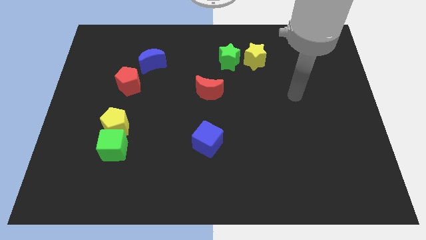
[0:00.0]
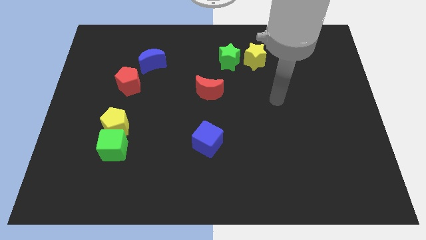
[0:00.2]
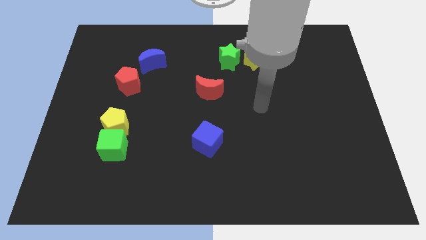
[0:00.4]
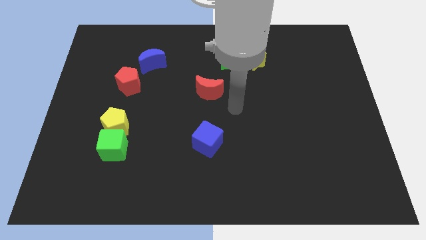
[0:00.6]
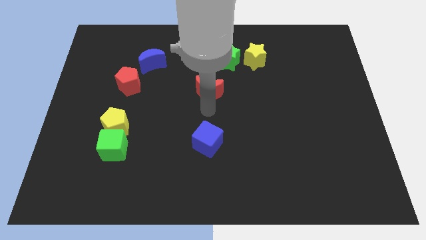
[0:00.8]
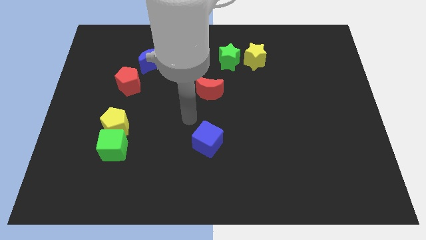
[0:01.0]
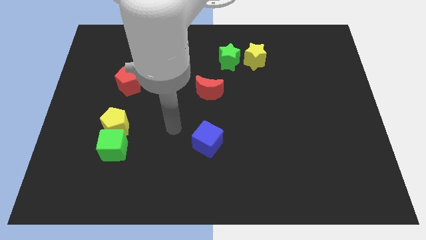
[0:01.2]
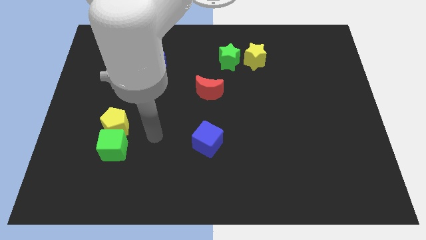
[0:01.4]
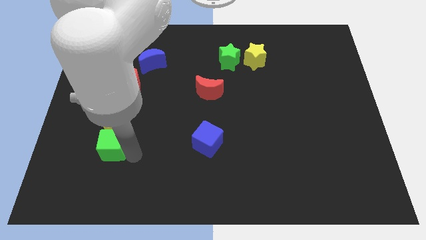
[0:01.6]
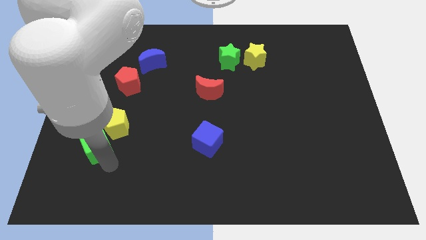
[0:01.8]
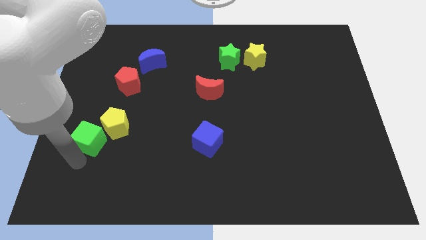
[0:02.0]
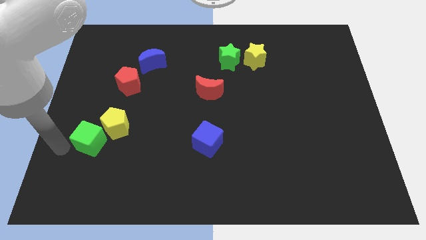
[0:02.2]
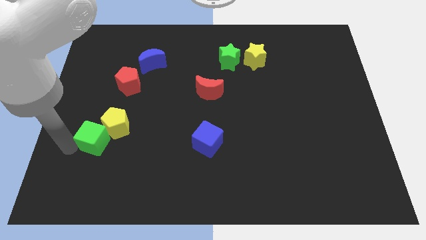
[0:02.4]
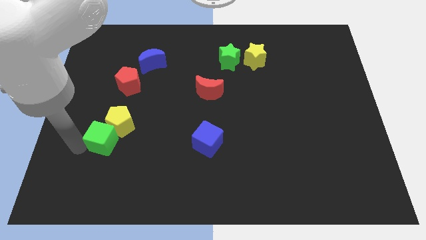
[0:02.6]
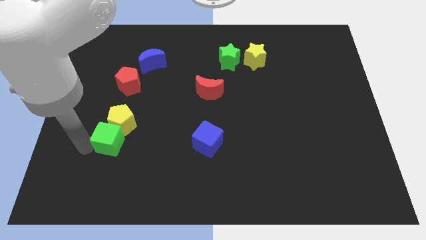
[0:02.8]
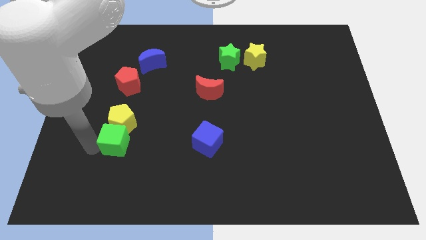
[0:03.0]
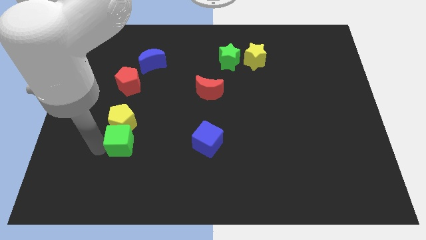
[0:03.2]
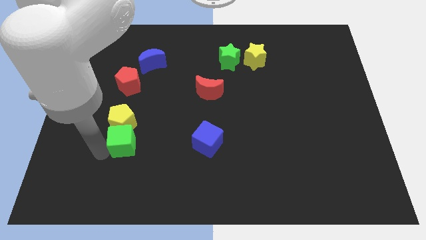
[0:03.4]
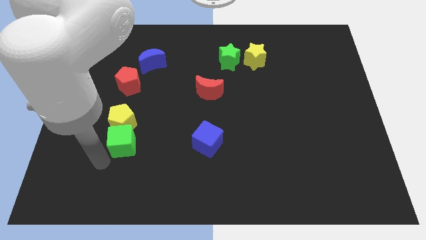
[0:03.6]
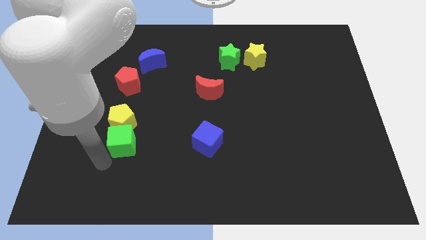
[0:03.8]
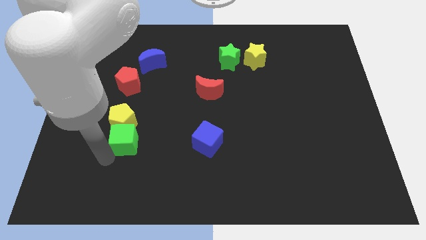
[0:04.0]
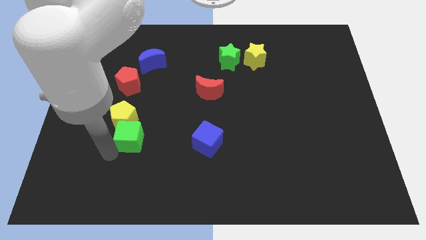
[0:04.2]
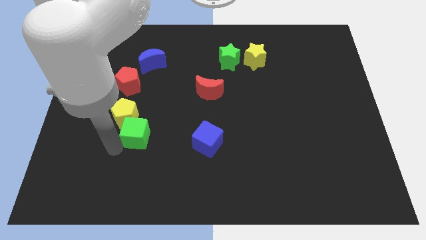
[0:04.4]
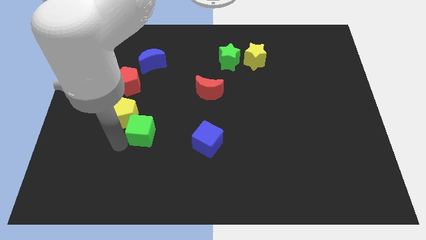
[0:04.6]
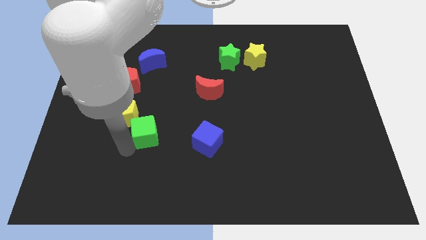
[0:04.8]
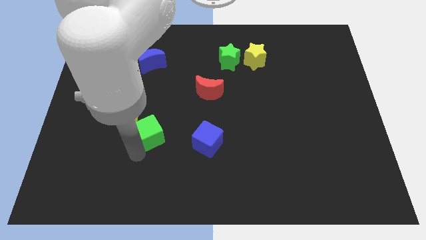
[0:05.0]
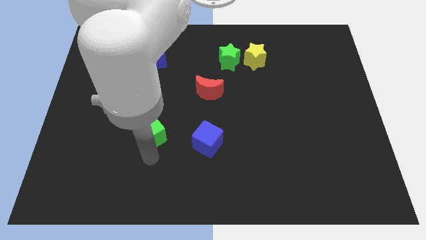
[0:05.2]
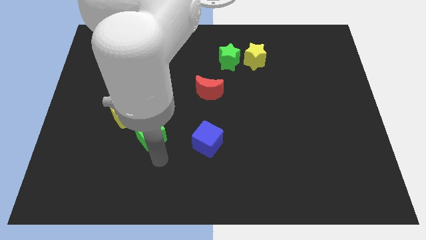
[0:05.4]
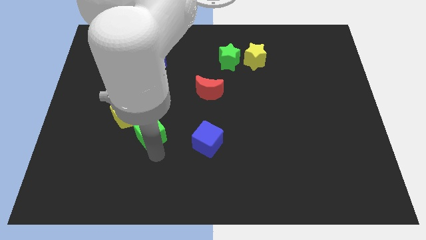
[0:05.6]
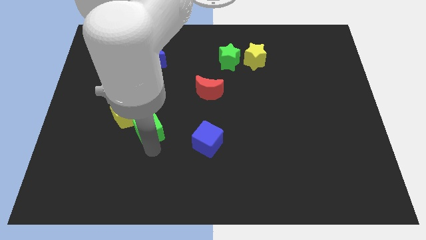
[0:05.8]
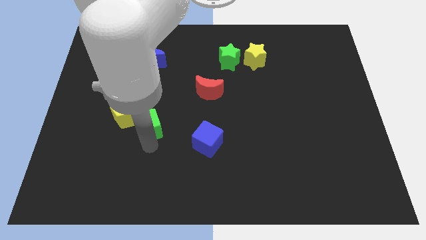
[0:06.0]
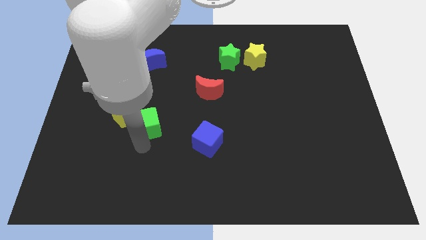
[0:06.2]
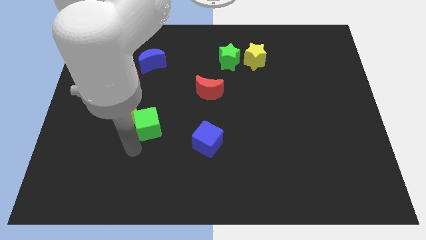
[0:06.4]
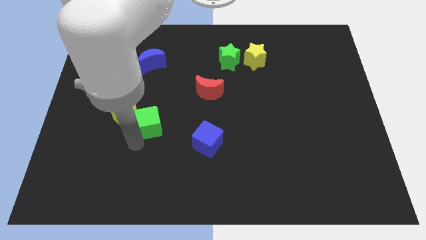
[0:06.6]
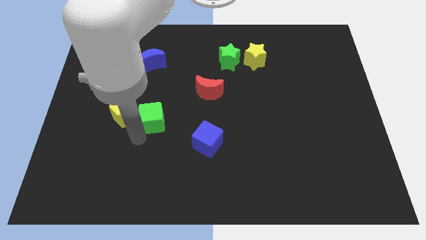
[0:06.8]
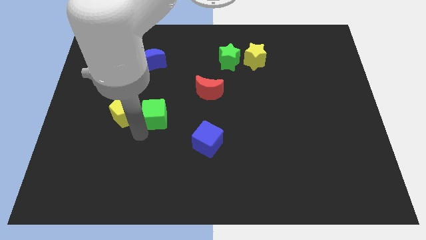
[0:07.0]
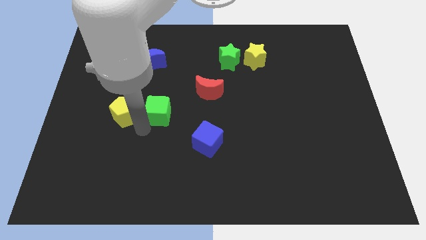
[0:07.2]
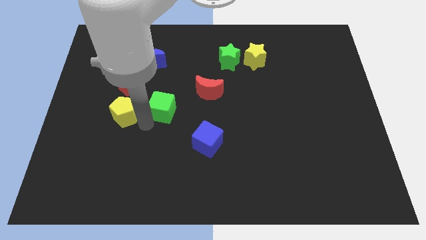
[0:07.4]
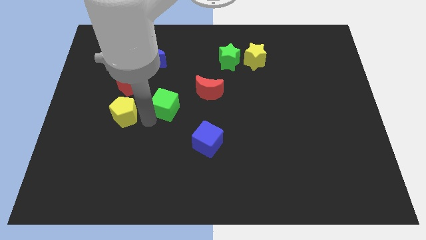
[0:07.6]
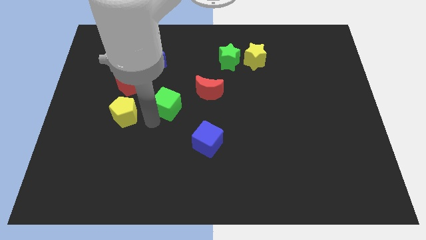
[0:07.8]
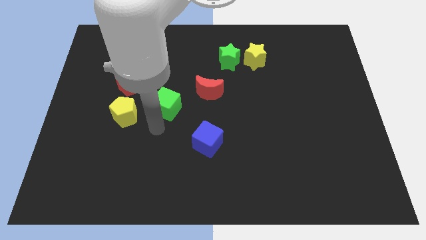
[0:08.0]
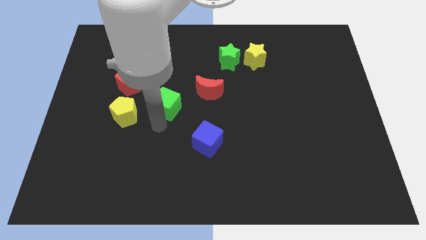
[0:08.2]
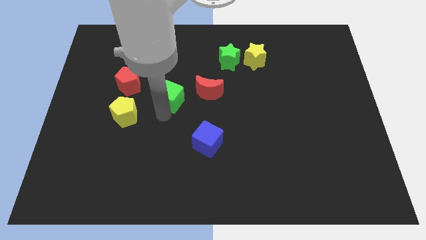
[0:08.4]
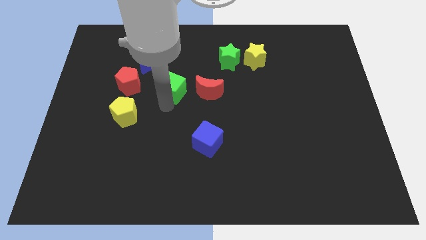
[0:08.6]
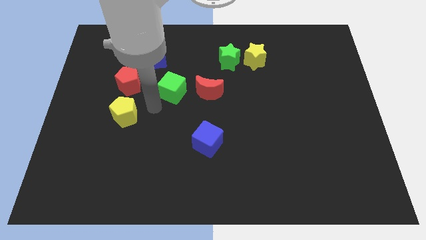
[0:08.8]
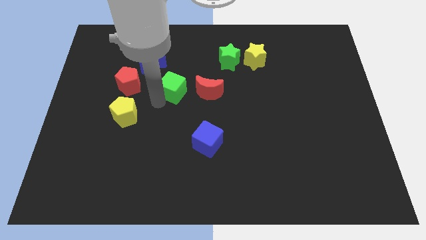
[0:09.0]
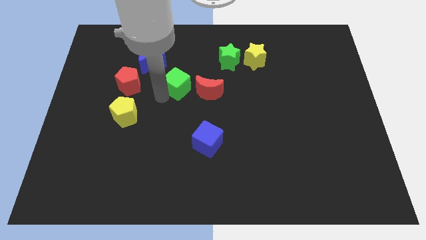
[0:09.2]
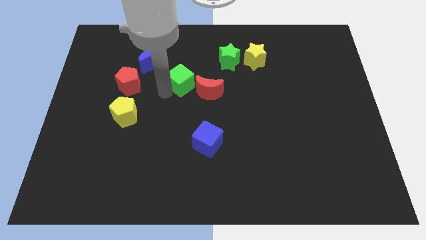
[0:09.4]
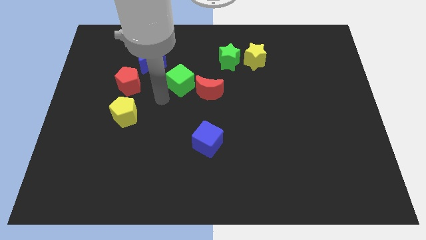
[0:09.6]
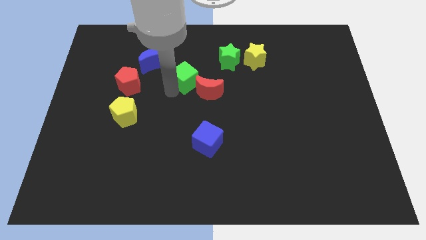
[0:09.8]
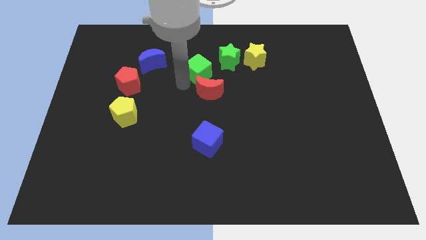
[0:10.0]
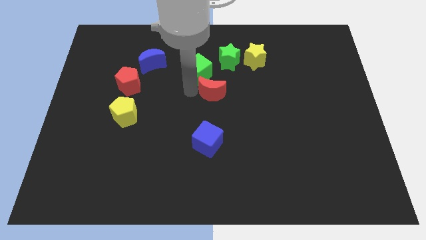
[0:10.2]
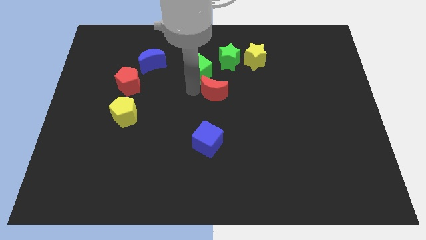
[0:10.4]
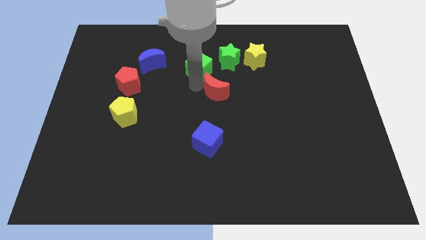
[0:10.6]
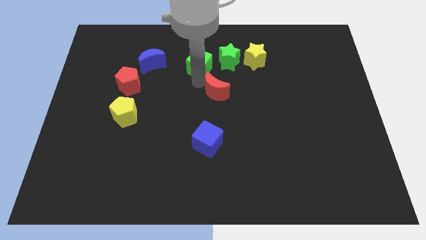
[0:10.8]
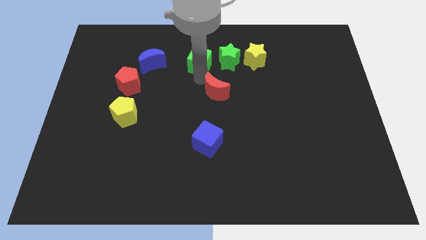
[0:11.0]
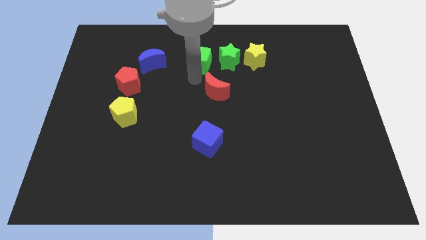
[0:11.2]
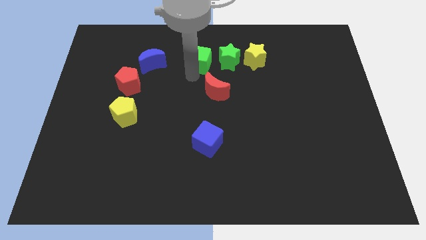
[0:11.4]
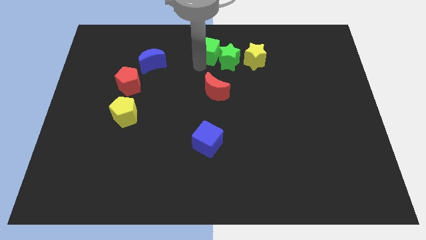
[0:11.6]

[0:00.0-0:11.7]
slide the green cube to the top
